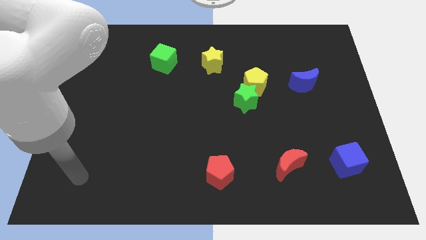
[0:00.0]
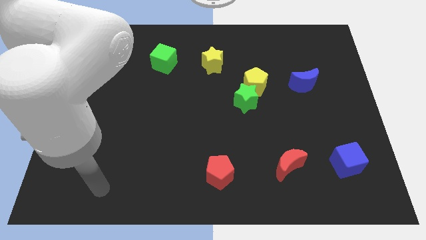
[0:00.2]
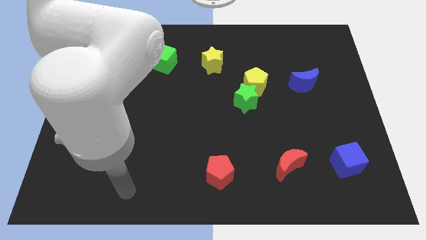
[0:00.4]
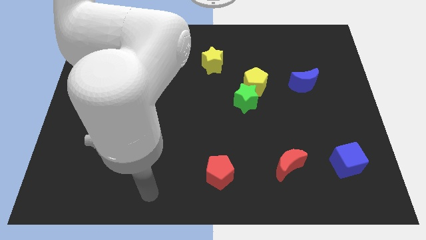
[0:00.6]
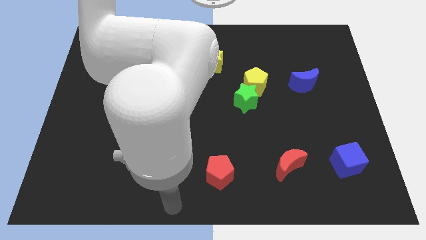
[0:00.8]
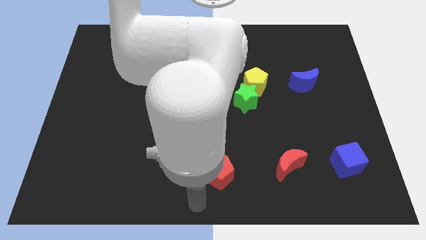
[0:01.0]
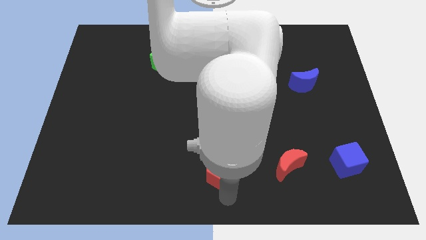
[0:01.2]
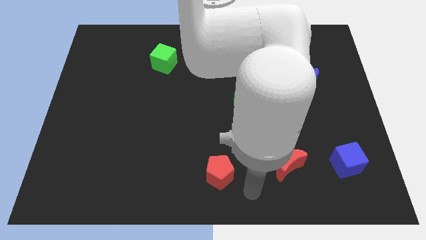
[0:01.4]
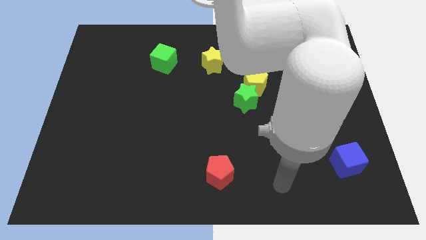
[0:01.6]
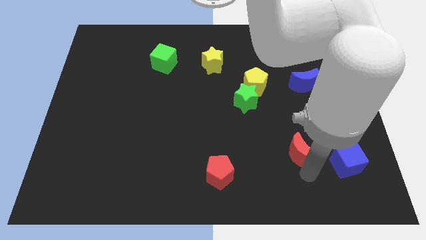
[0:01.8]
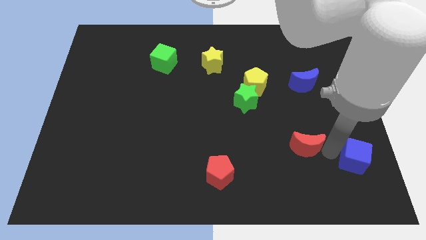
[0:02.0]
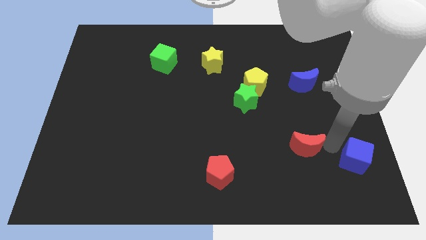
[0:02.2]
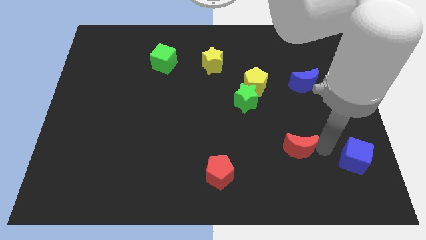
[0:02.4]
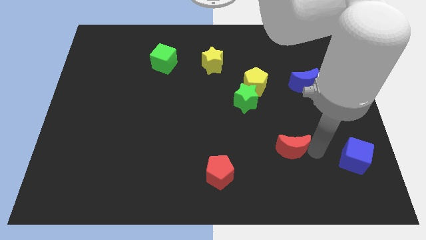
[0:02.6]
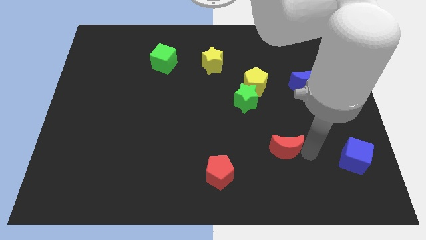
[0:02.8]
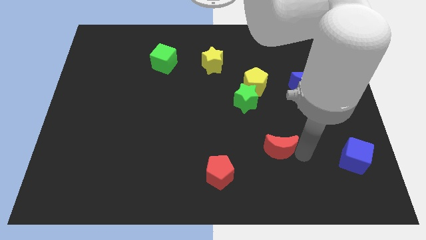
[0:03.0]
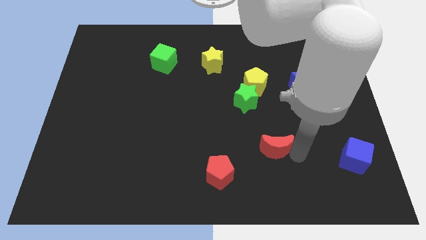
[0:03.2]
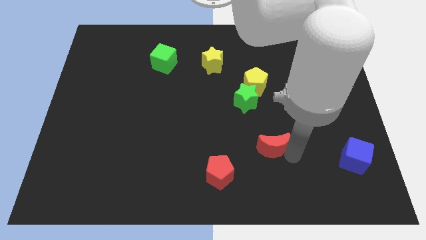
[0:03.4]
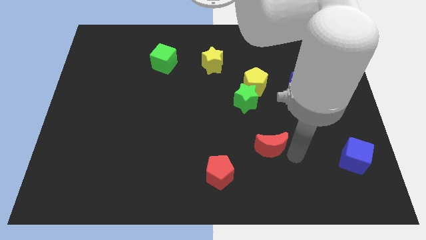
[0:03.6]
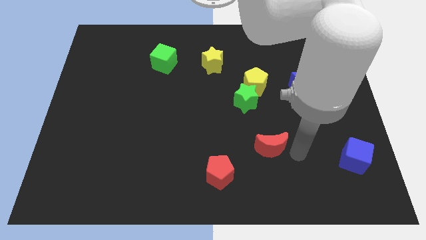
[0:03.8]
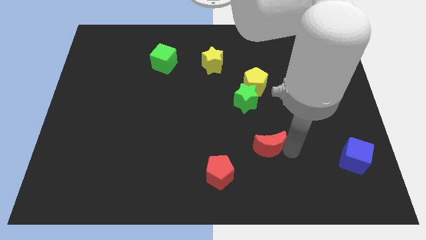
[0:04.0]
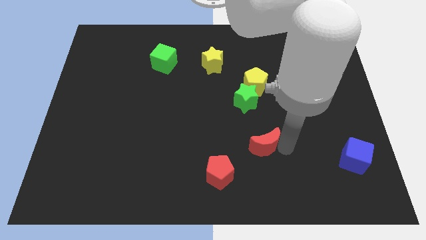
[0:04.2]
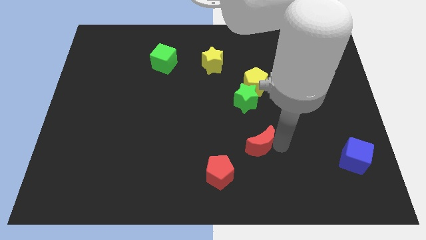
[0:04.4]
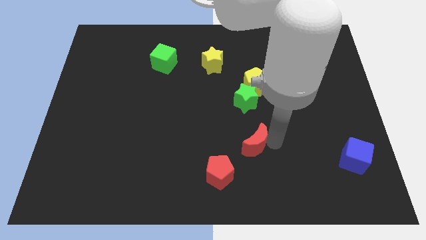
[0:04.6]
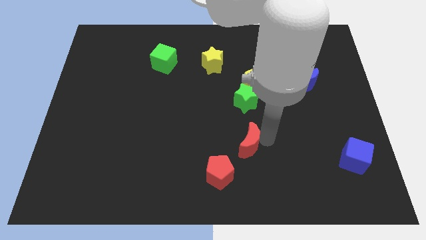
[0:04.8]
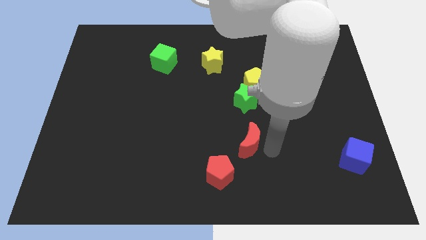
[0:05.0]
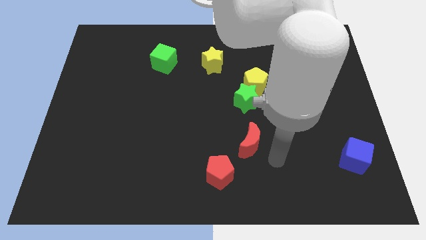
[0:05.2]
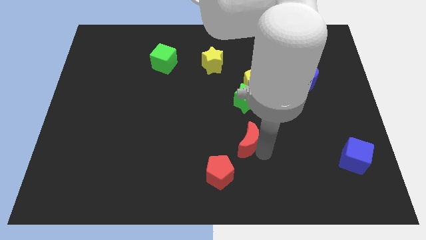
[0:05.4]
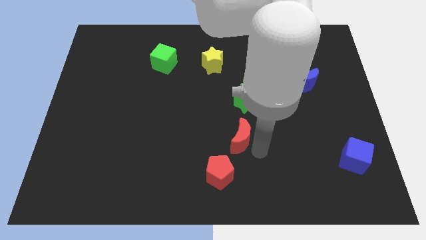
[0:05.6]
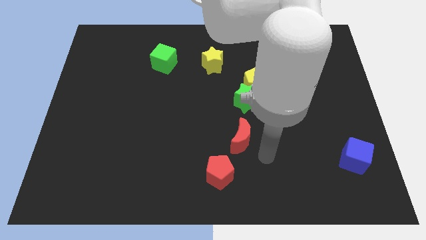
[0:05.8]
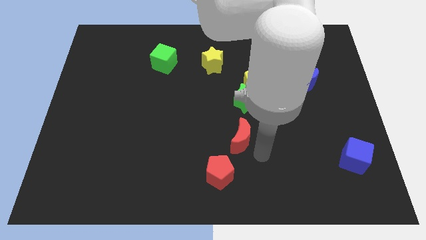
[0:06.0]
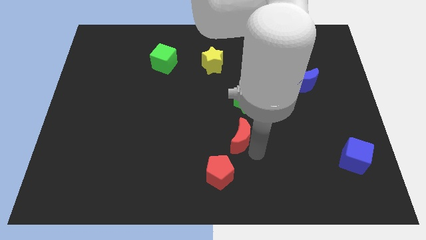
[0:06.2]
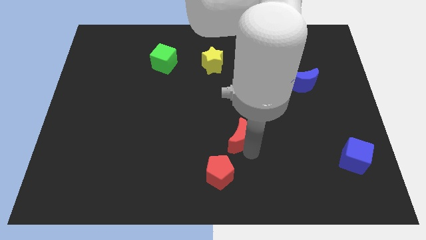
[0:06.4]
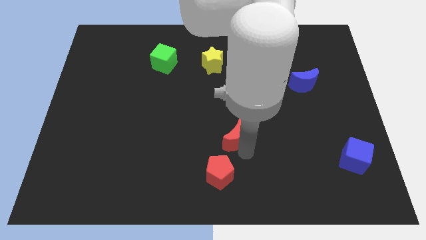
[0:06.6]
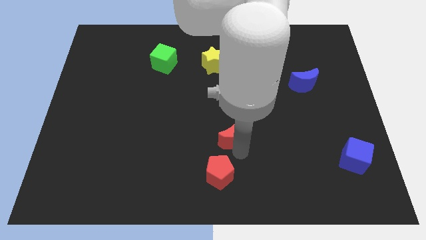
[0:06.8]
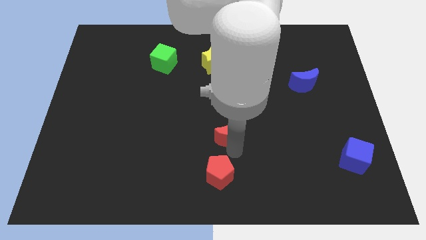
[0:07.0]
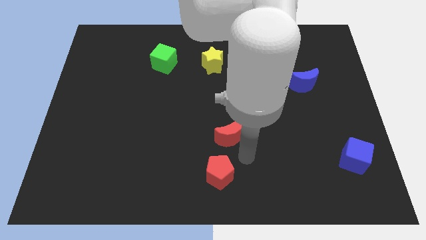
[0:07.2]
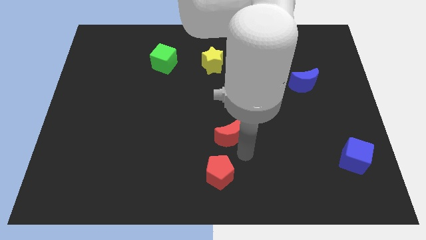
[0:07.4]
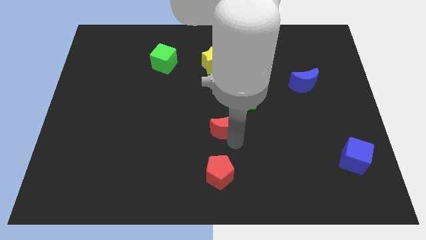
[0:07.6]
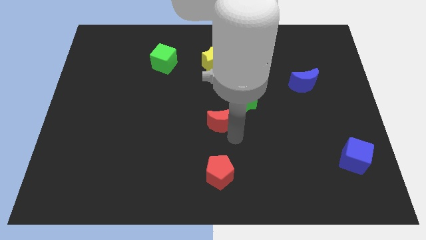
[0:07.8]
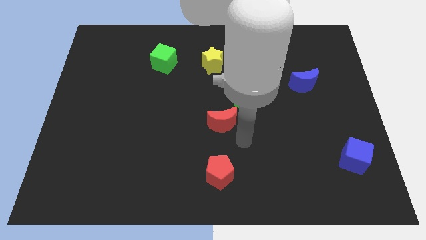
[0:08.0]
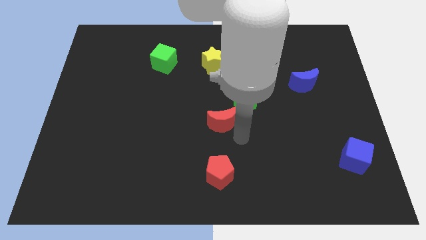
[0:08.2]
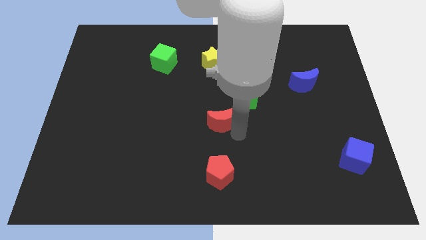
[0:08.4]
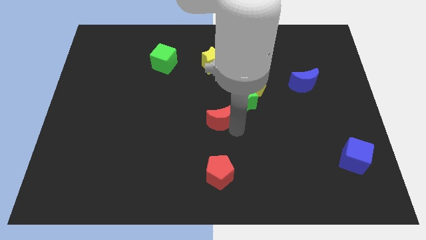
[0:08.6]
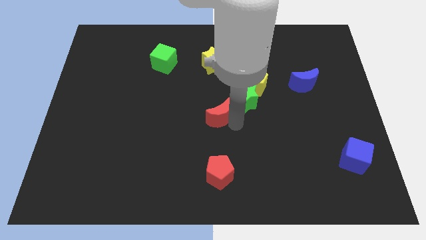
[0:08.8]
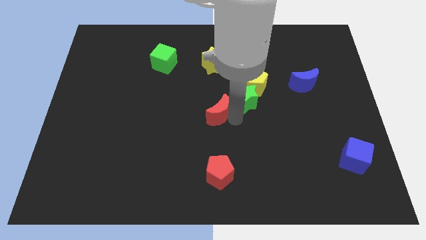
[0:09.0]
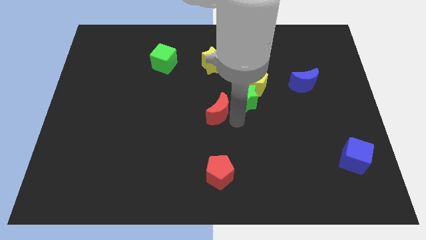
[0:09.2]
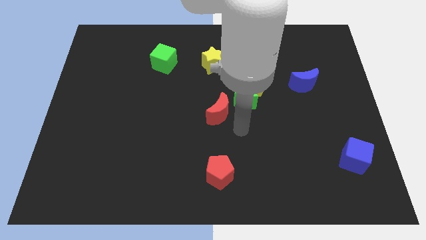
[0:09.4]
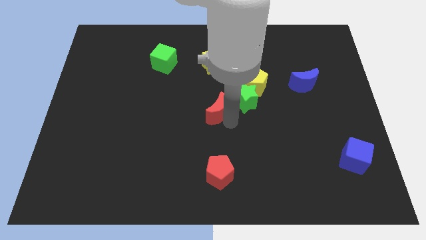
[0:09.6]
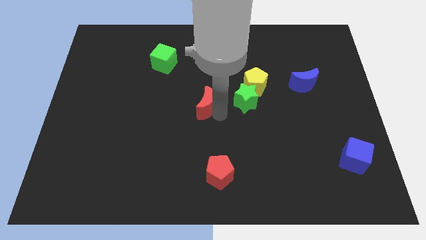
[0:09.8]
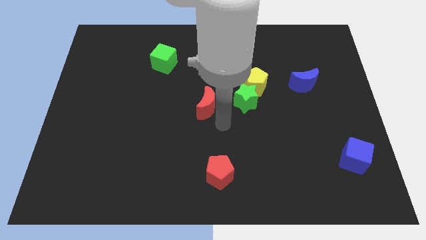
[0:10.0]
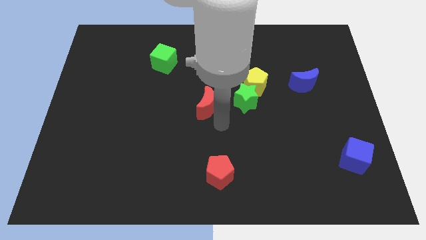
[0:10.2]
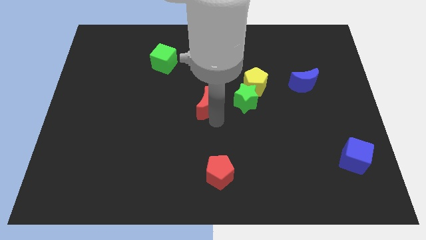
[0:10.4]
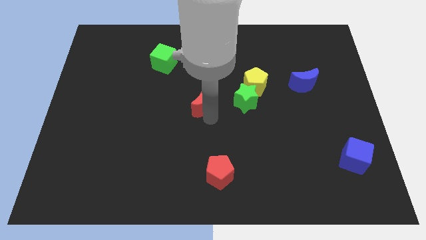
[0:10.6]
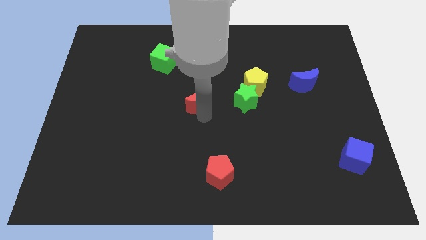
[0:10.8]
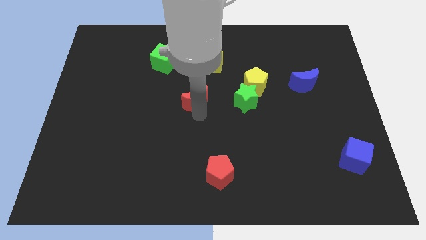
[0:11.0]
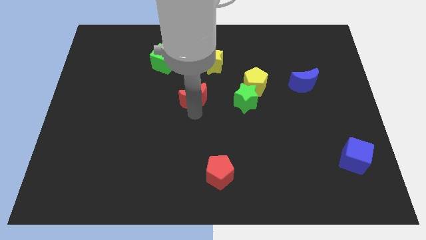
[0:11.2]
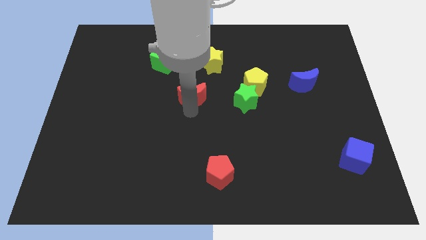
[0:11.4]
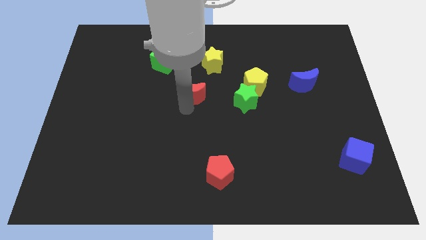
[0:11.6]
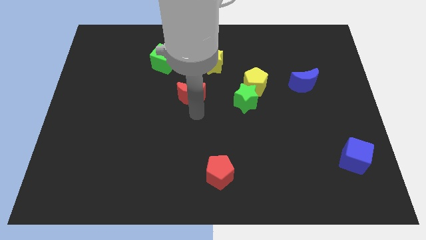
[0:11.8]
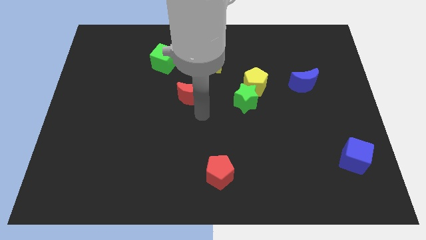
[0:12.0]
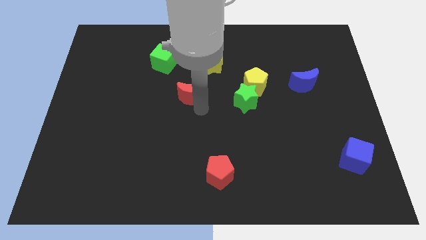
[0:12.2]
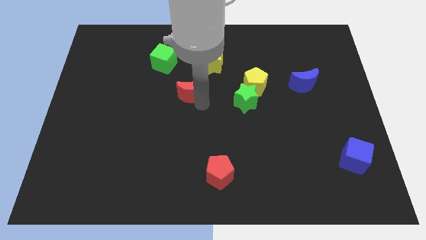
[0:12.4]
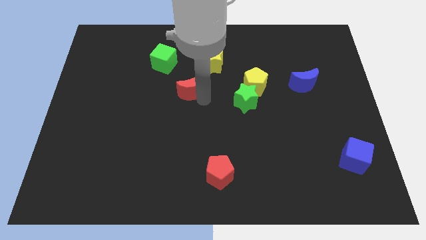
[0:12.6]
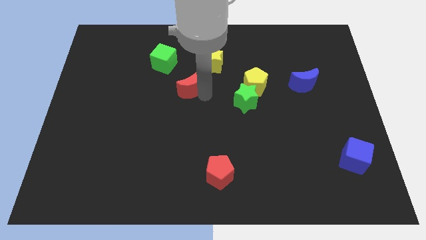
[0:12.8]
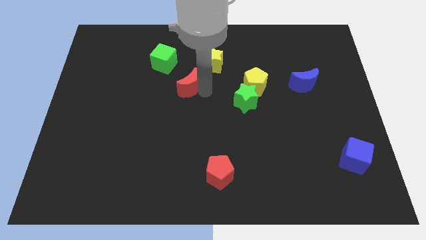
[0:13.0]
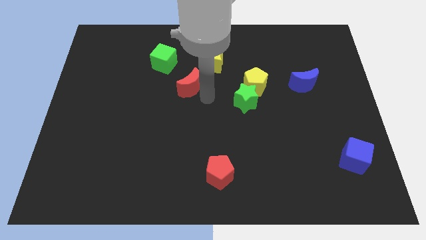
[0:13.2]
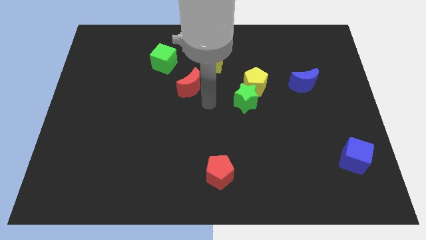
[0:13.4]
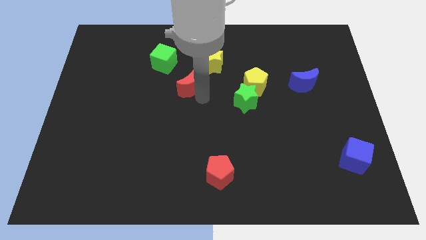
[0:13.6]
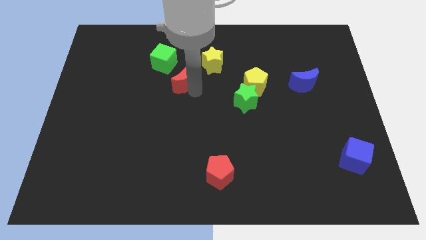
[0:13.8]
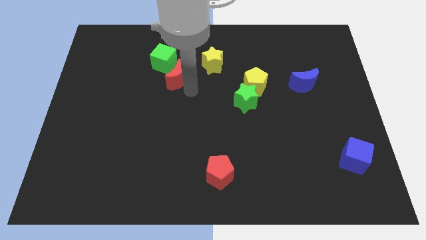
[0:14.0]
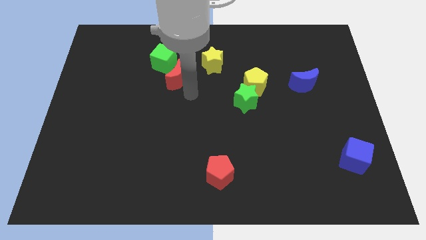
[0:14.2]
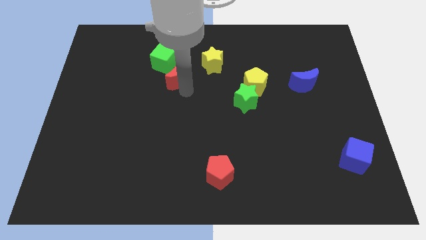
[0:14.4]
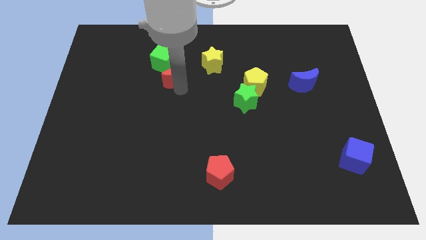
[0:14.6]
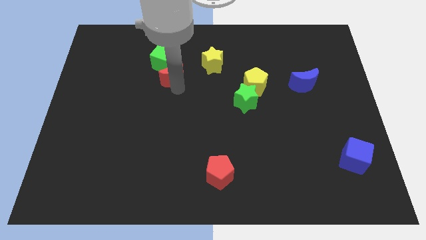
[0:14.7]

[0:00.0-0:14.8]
put the red moon towards the green cube

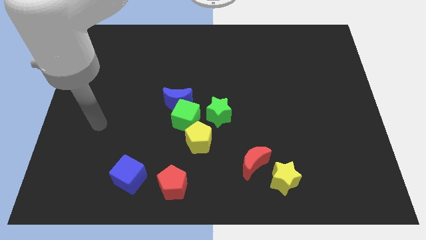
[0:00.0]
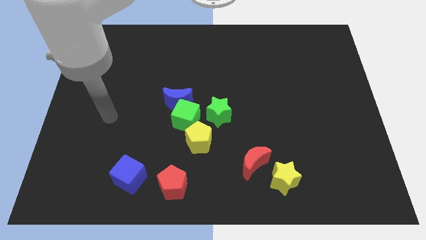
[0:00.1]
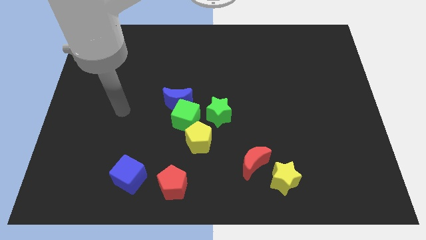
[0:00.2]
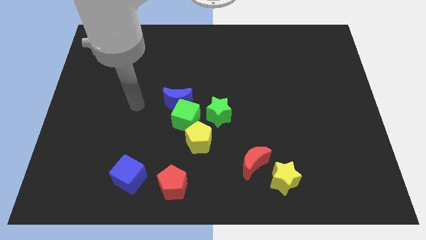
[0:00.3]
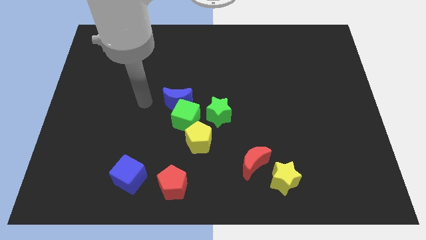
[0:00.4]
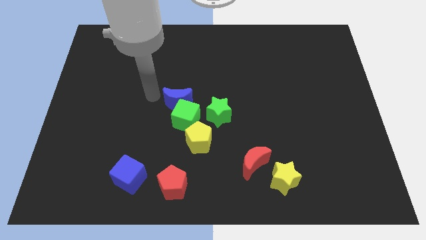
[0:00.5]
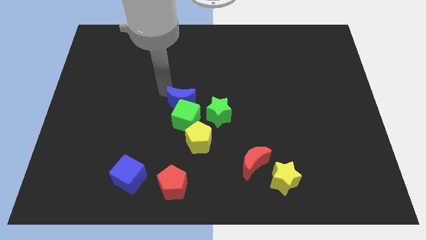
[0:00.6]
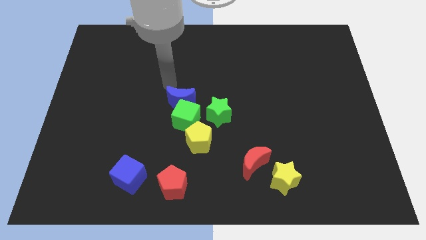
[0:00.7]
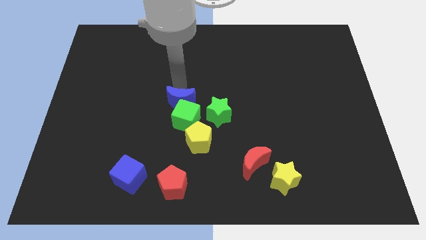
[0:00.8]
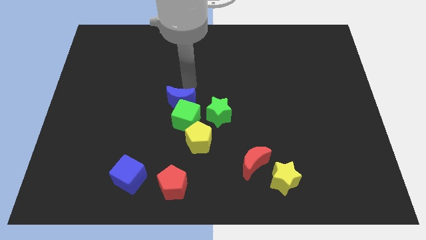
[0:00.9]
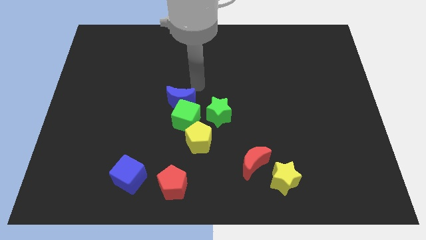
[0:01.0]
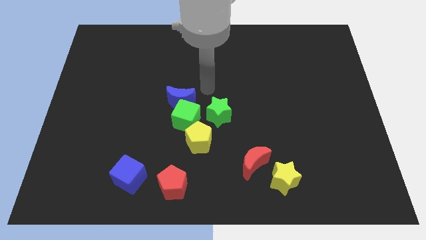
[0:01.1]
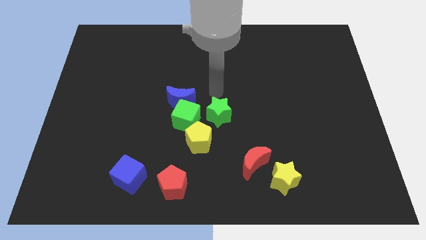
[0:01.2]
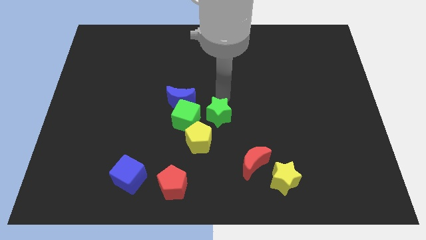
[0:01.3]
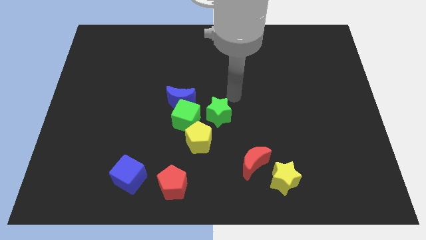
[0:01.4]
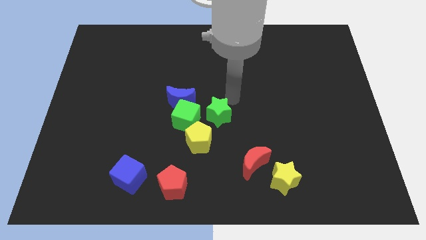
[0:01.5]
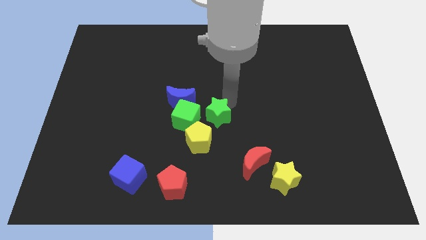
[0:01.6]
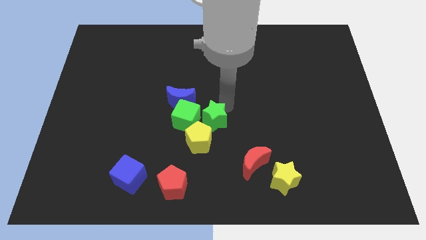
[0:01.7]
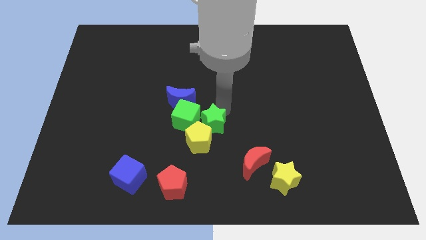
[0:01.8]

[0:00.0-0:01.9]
move the green star next to the yellow pentagon
